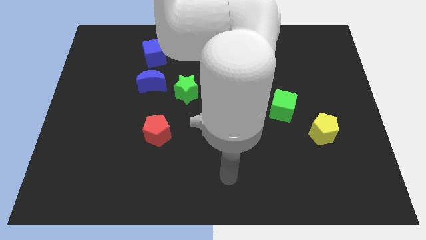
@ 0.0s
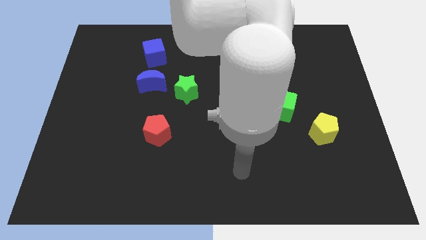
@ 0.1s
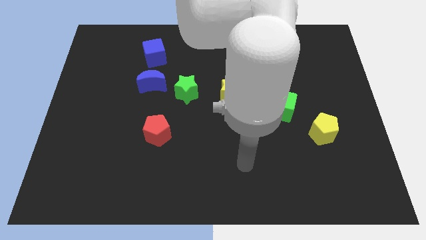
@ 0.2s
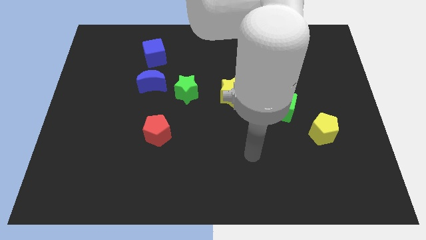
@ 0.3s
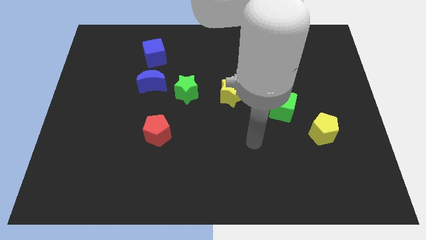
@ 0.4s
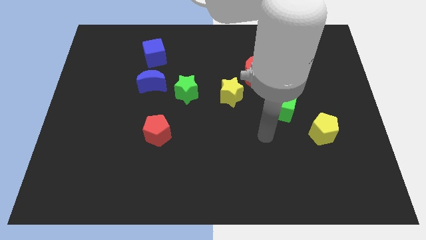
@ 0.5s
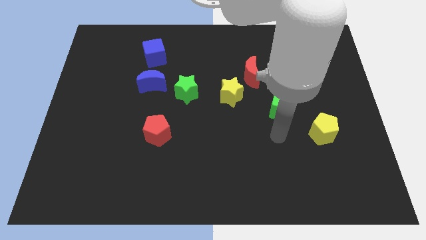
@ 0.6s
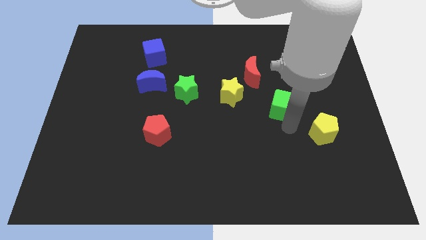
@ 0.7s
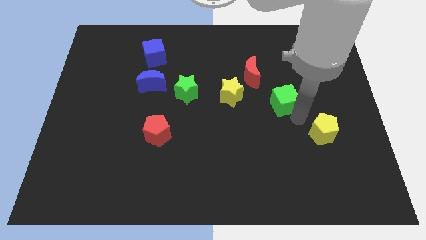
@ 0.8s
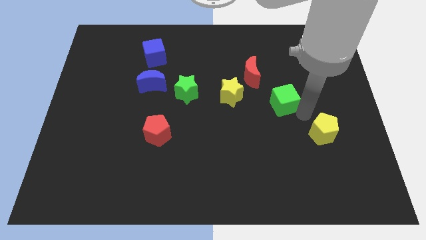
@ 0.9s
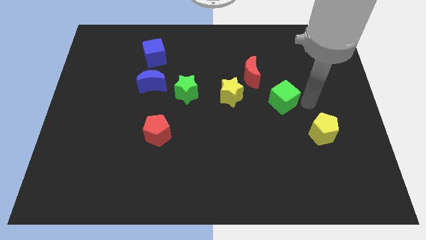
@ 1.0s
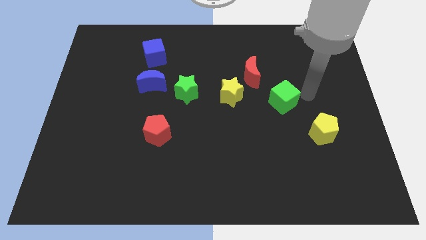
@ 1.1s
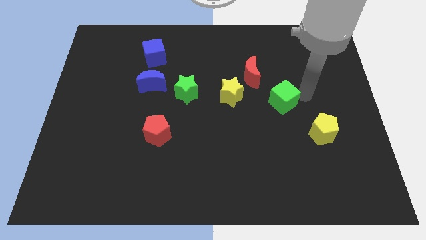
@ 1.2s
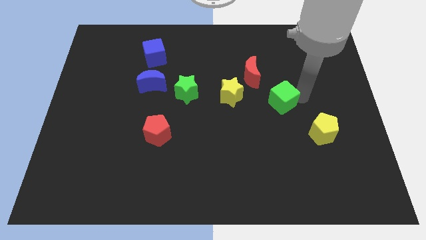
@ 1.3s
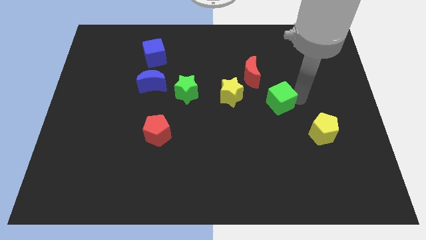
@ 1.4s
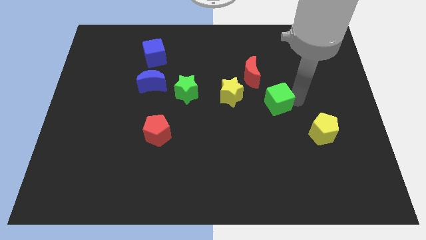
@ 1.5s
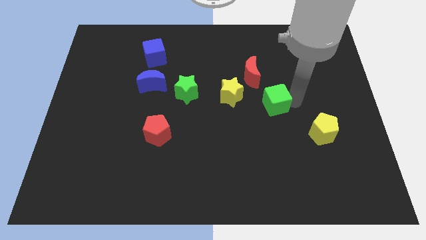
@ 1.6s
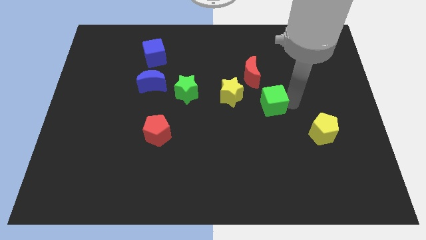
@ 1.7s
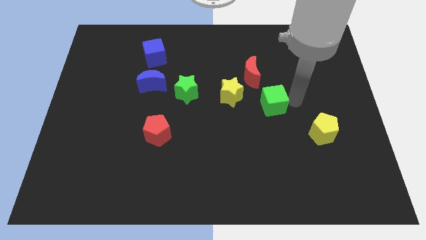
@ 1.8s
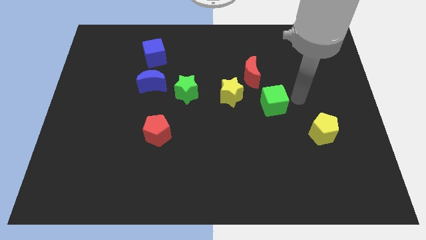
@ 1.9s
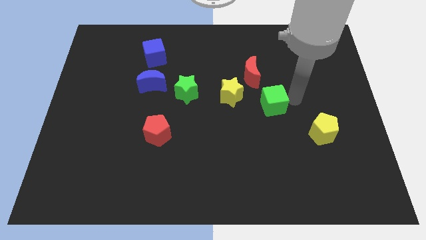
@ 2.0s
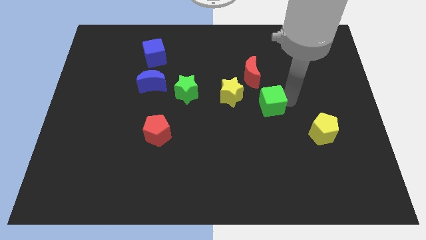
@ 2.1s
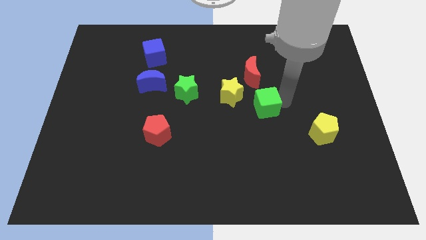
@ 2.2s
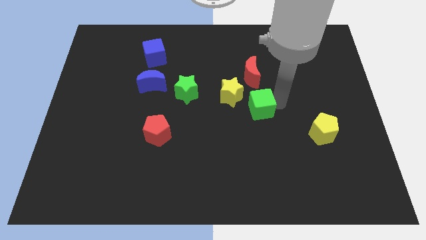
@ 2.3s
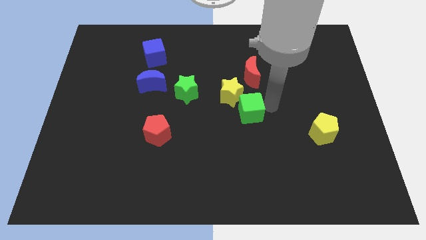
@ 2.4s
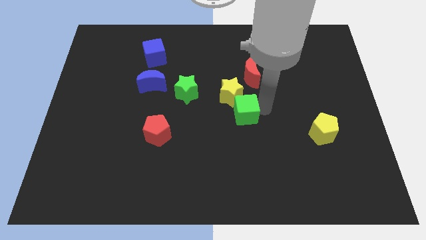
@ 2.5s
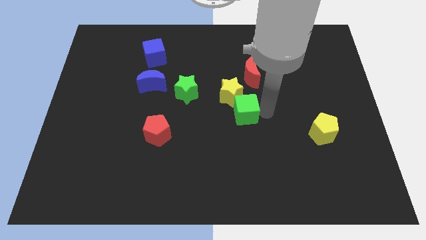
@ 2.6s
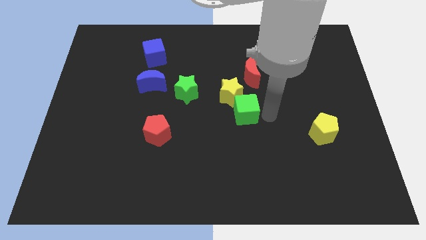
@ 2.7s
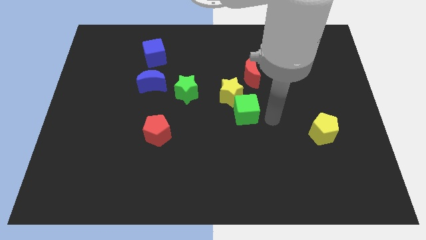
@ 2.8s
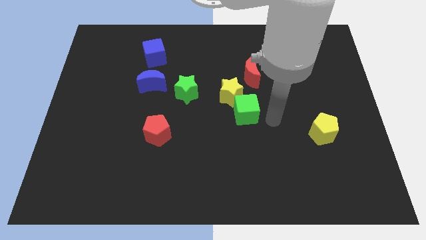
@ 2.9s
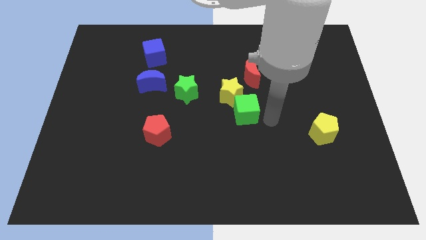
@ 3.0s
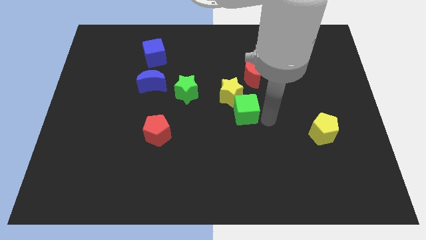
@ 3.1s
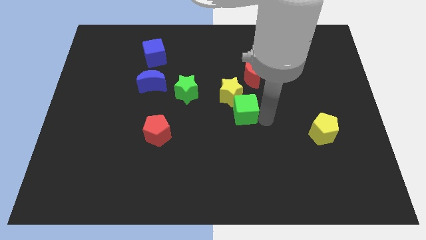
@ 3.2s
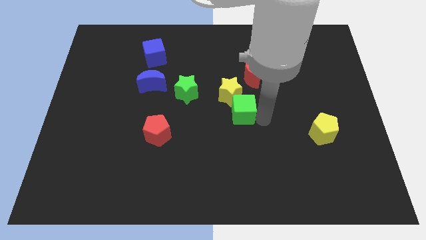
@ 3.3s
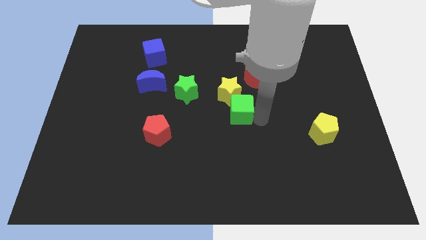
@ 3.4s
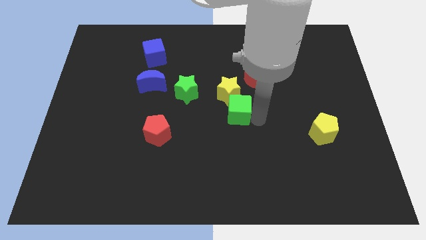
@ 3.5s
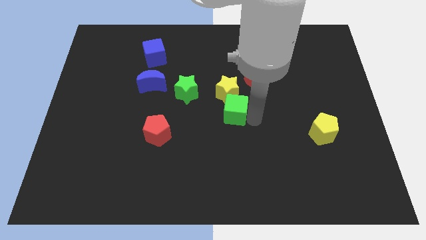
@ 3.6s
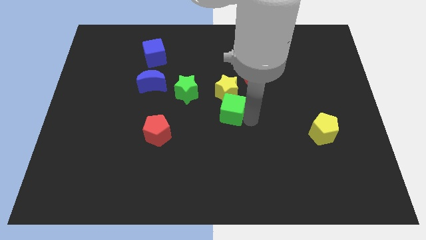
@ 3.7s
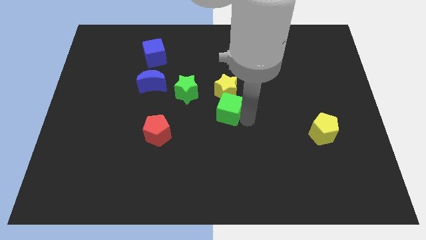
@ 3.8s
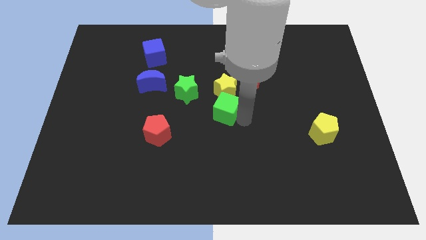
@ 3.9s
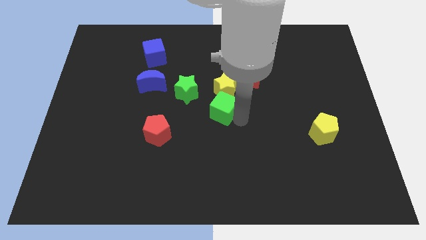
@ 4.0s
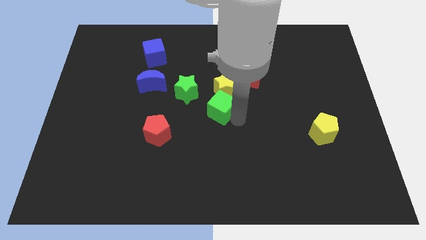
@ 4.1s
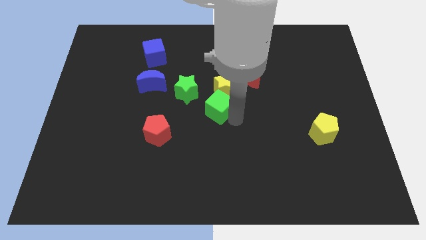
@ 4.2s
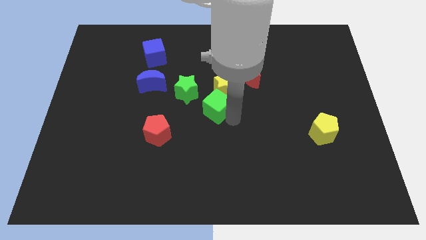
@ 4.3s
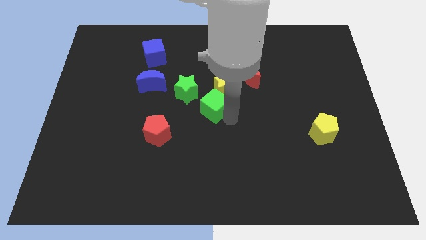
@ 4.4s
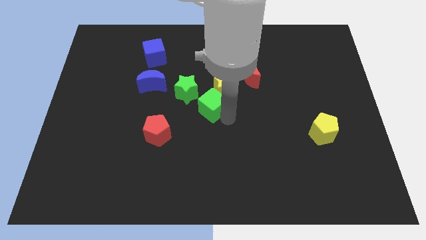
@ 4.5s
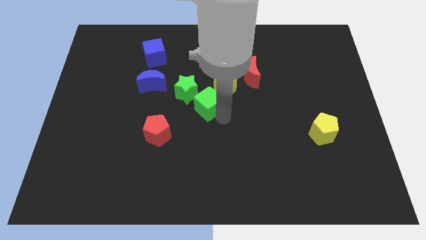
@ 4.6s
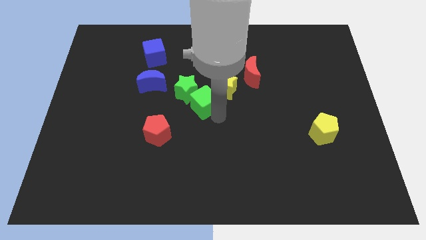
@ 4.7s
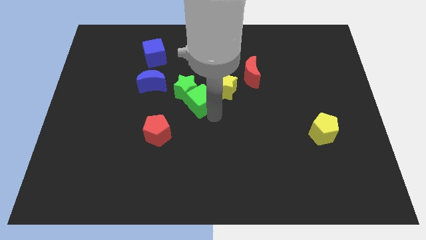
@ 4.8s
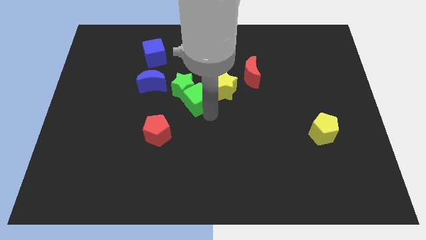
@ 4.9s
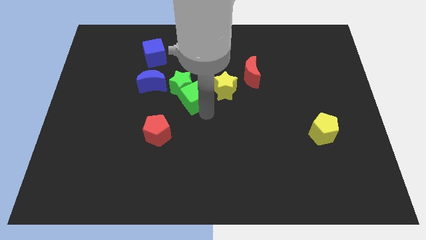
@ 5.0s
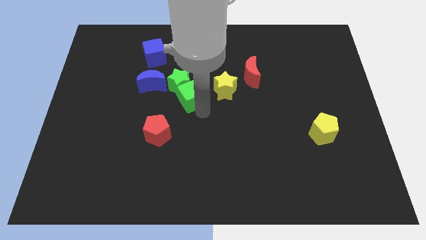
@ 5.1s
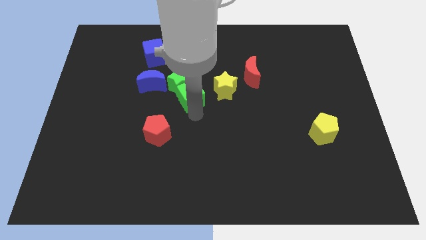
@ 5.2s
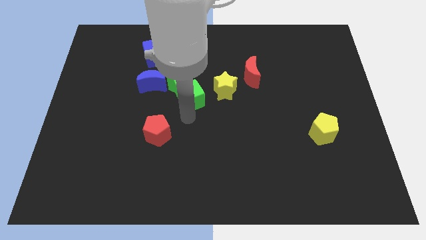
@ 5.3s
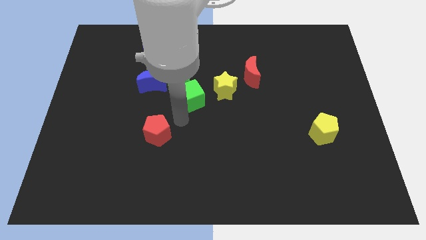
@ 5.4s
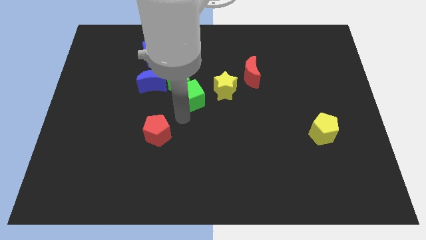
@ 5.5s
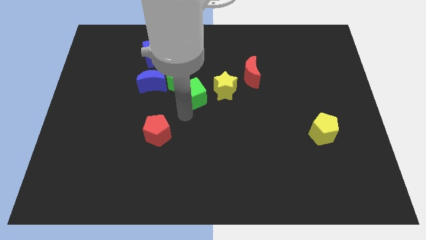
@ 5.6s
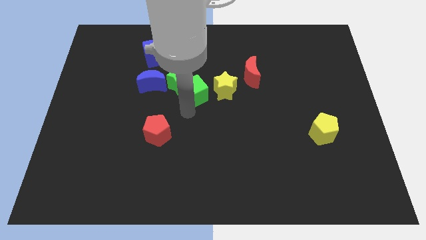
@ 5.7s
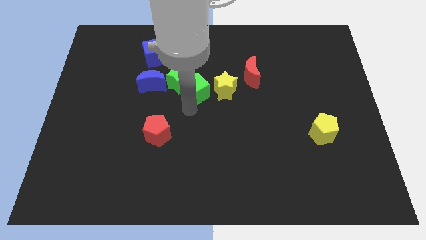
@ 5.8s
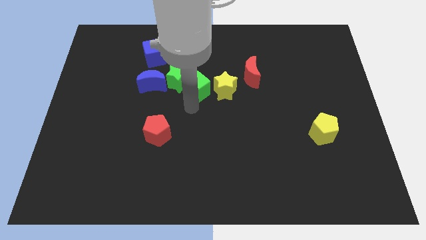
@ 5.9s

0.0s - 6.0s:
move the green cube to the top left side of the yellow star

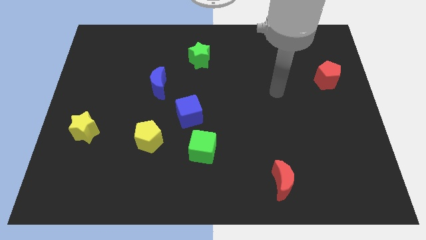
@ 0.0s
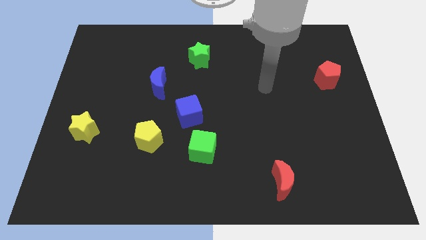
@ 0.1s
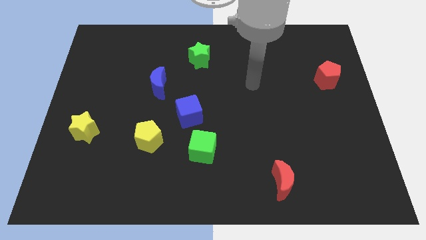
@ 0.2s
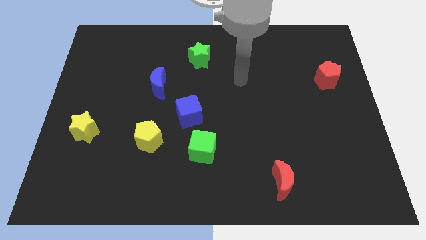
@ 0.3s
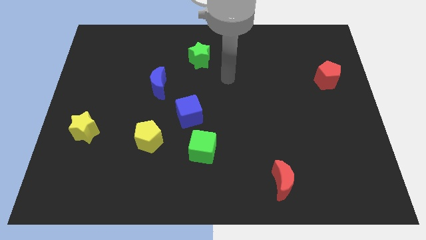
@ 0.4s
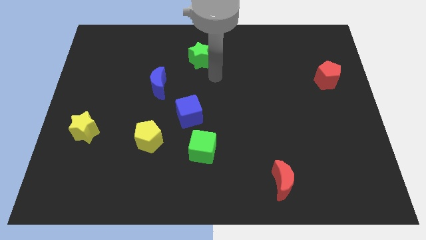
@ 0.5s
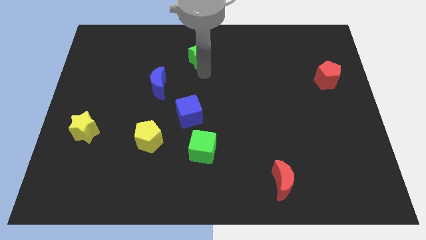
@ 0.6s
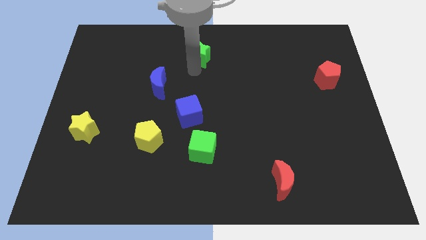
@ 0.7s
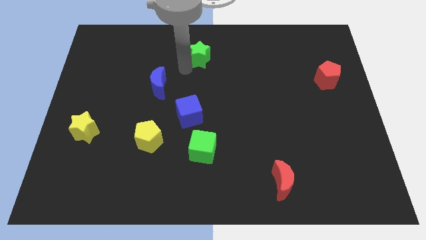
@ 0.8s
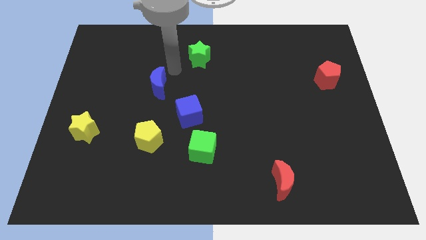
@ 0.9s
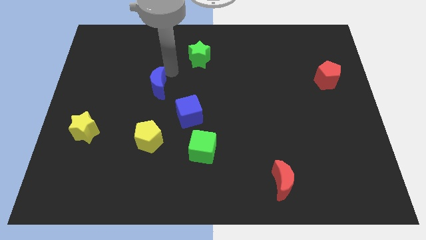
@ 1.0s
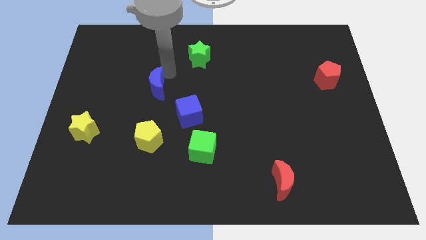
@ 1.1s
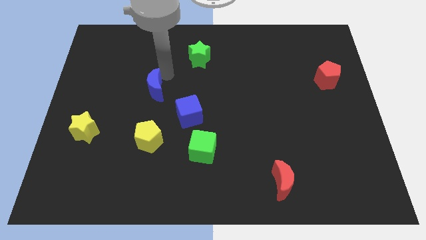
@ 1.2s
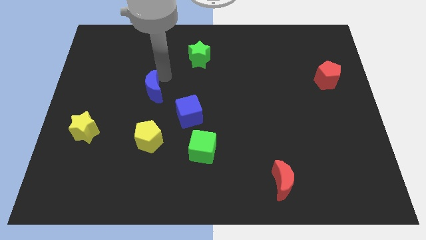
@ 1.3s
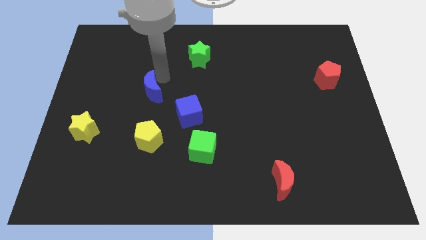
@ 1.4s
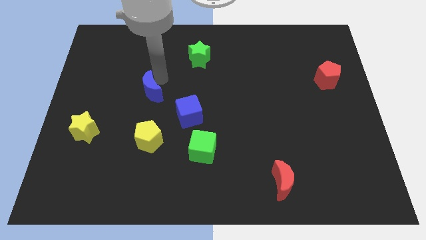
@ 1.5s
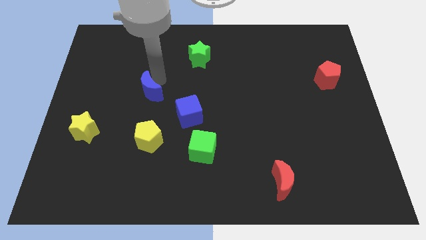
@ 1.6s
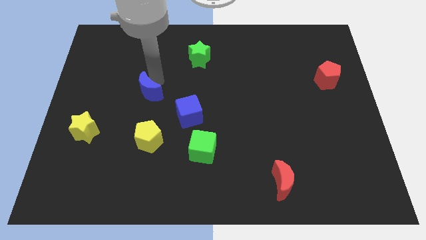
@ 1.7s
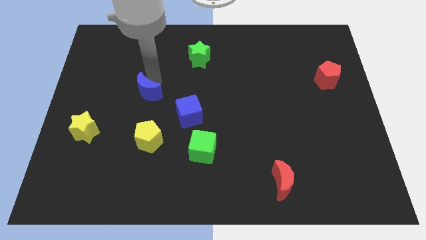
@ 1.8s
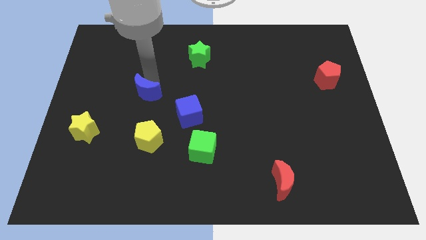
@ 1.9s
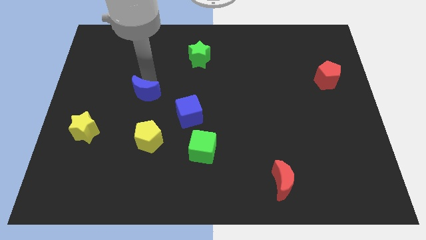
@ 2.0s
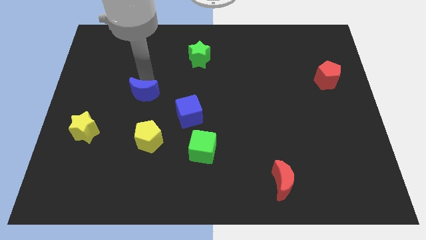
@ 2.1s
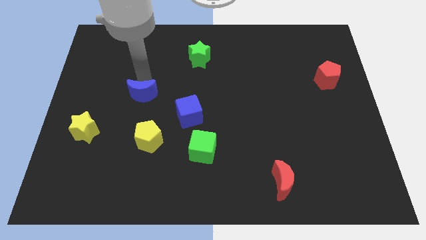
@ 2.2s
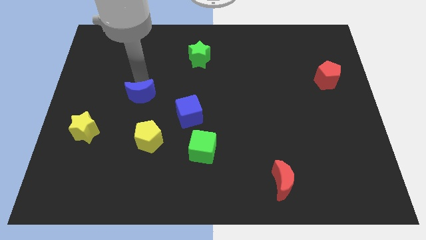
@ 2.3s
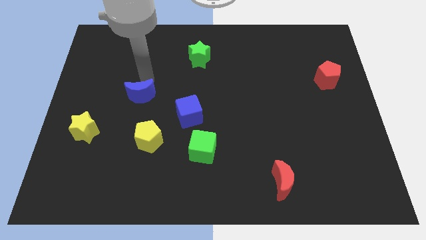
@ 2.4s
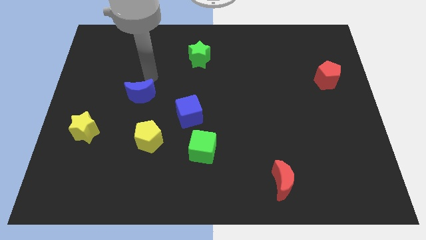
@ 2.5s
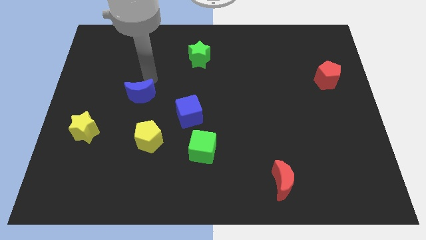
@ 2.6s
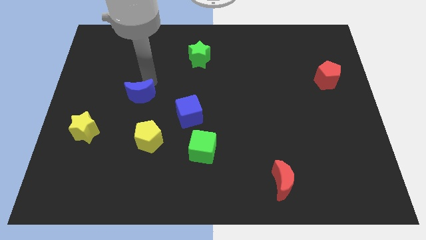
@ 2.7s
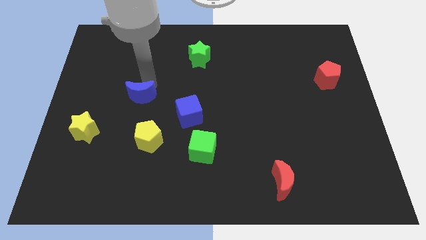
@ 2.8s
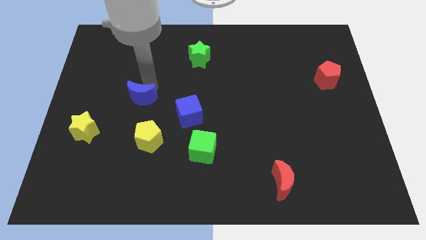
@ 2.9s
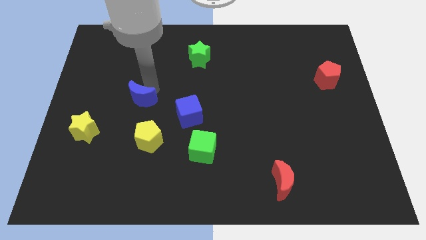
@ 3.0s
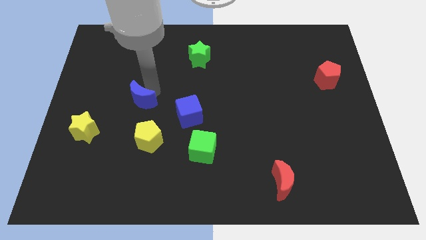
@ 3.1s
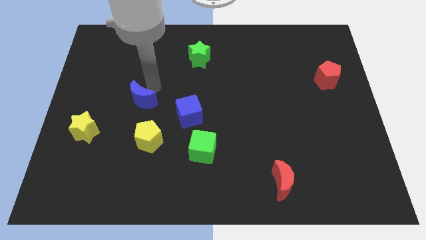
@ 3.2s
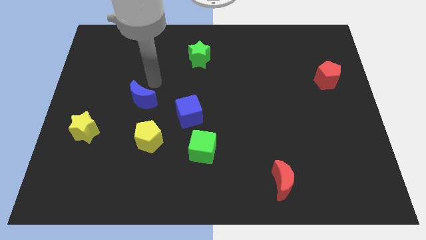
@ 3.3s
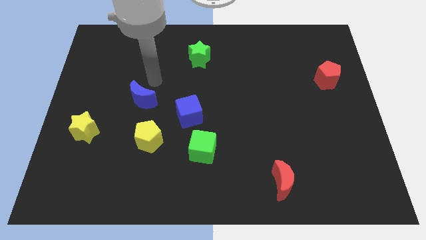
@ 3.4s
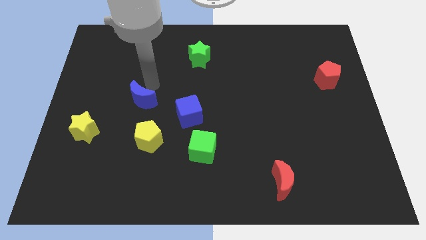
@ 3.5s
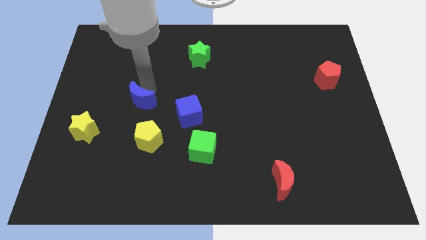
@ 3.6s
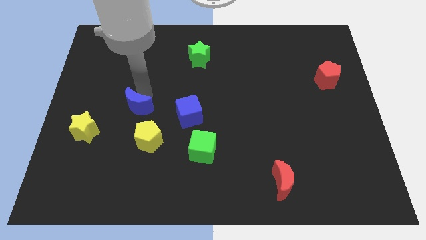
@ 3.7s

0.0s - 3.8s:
put the blue moon to the top left side of the yellow pentagon
